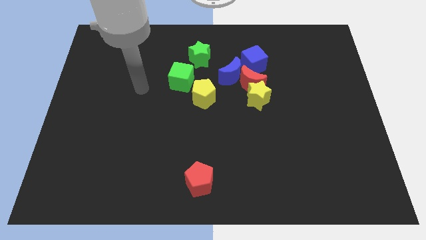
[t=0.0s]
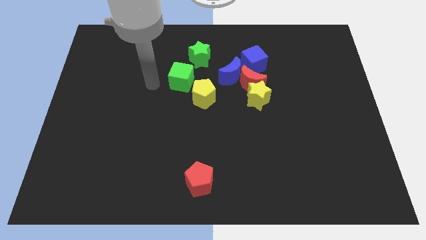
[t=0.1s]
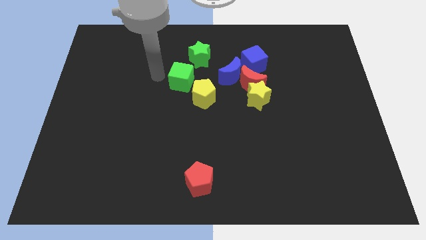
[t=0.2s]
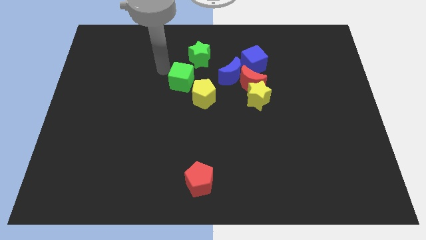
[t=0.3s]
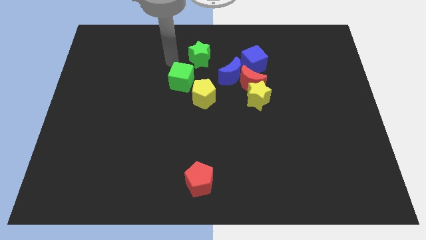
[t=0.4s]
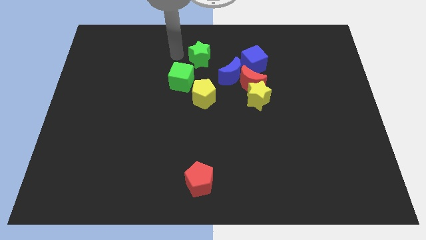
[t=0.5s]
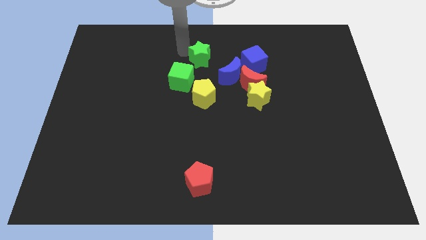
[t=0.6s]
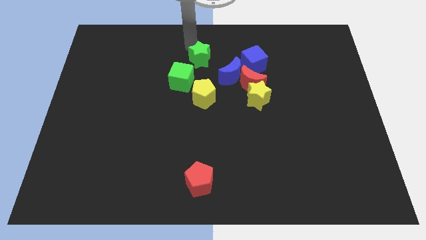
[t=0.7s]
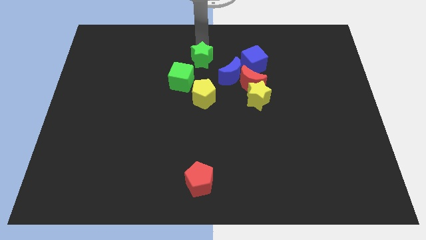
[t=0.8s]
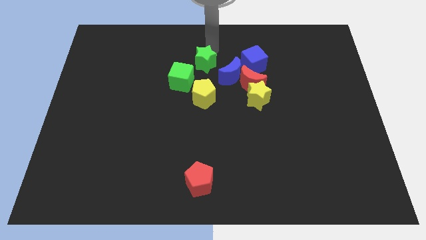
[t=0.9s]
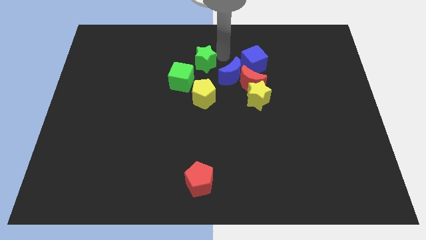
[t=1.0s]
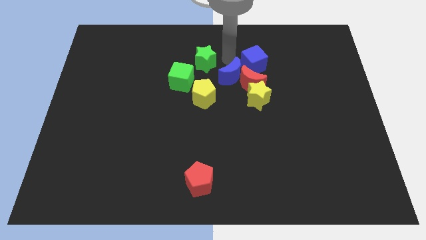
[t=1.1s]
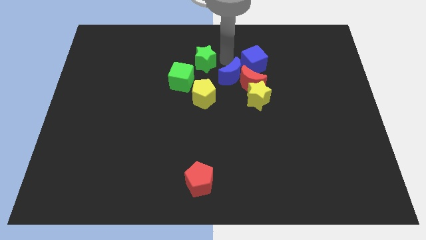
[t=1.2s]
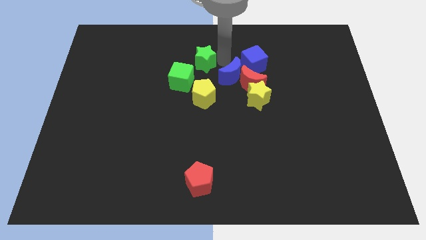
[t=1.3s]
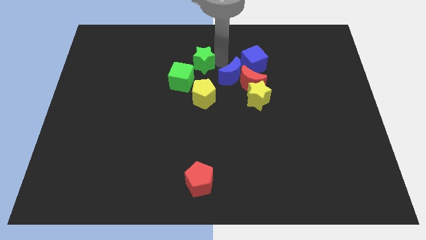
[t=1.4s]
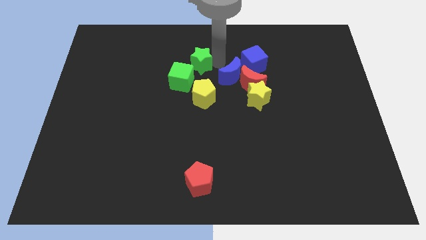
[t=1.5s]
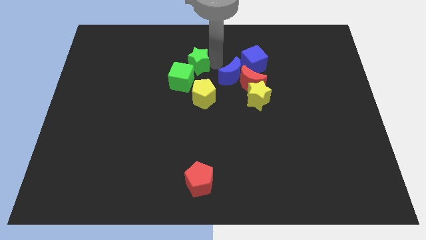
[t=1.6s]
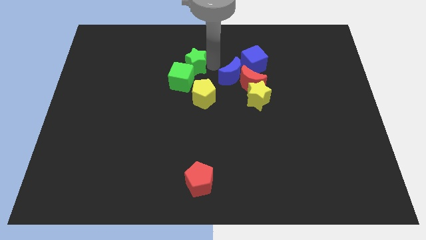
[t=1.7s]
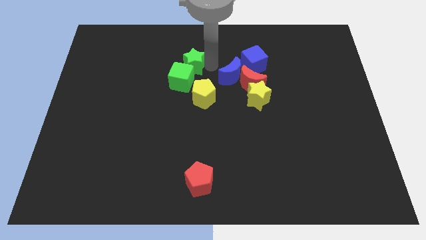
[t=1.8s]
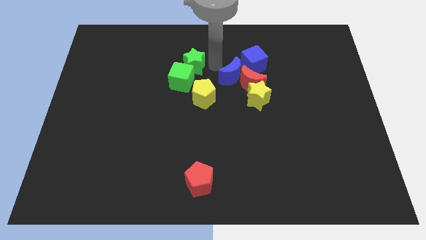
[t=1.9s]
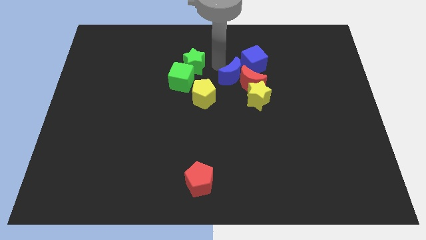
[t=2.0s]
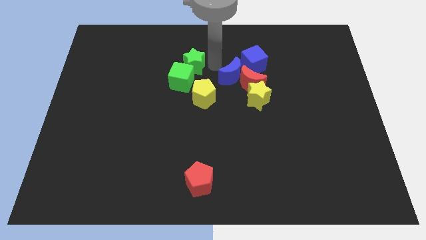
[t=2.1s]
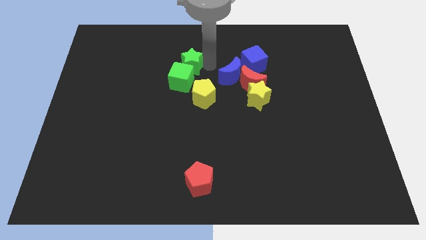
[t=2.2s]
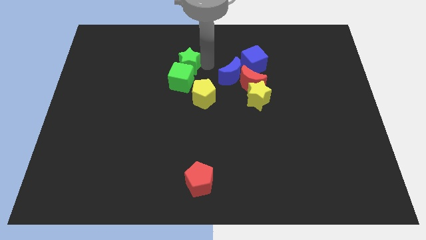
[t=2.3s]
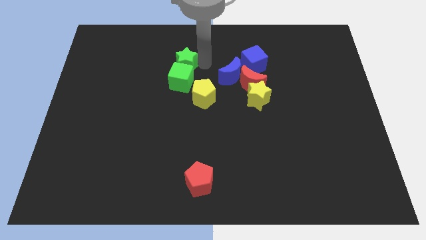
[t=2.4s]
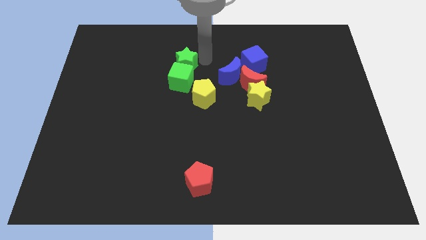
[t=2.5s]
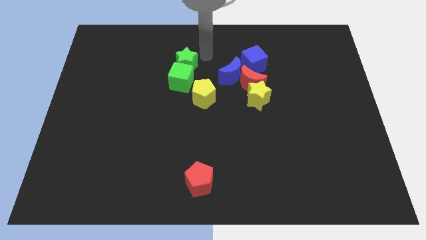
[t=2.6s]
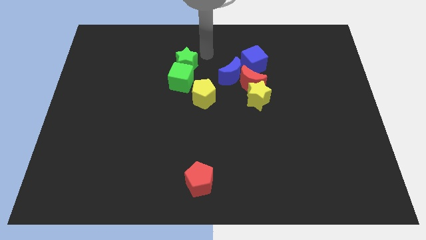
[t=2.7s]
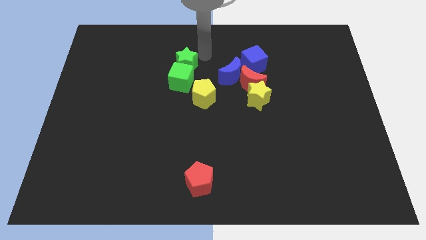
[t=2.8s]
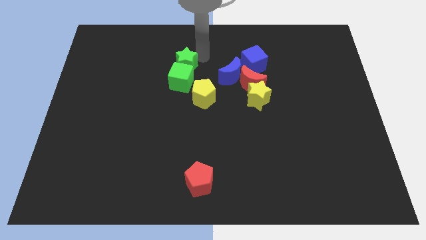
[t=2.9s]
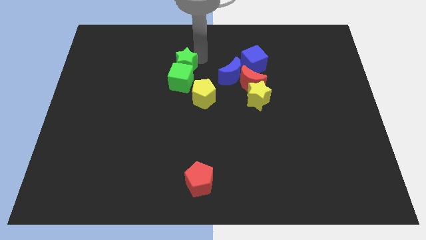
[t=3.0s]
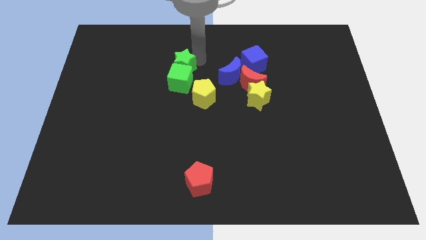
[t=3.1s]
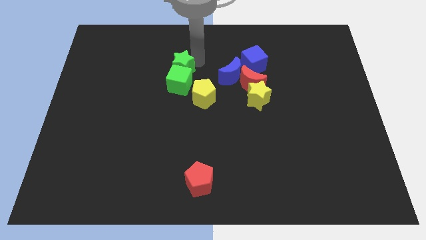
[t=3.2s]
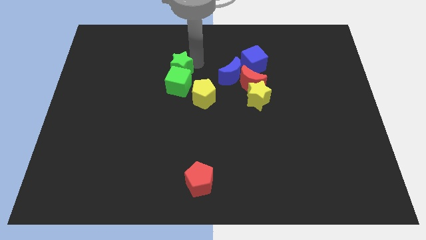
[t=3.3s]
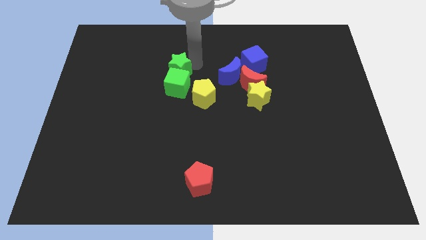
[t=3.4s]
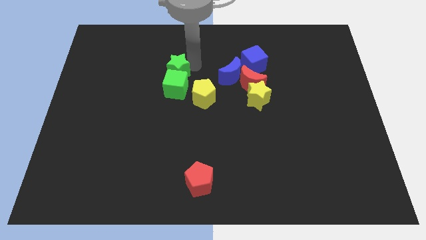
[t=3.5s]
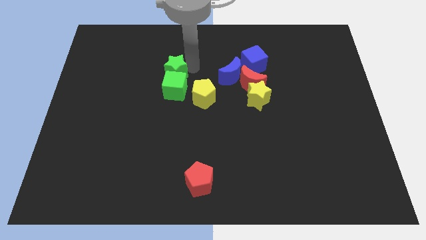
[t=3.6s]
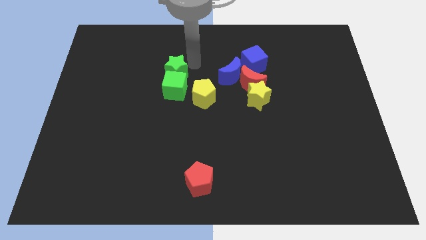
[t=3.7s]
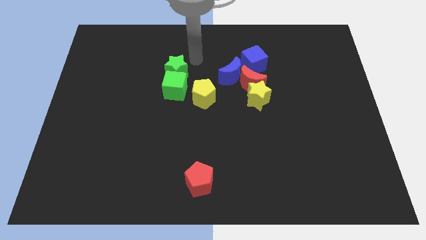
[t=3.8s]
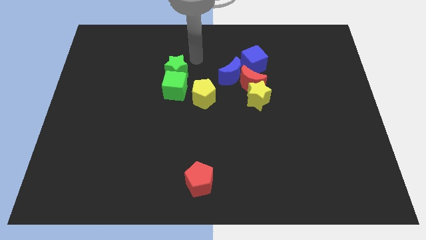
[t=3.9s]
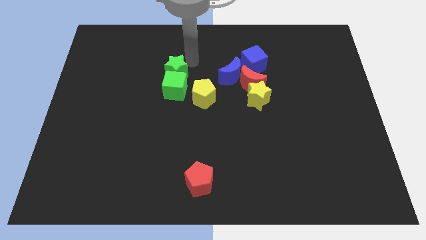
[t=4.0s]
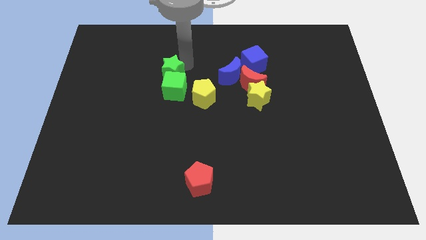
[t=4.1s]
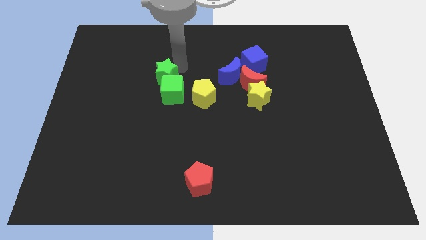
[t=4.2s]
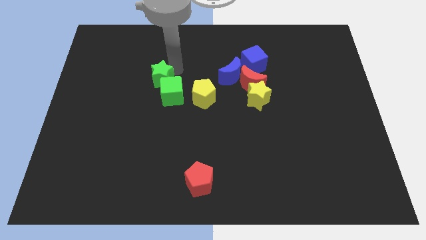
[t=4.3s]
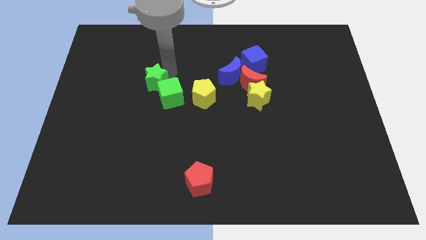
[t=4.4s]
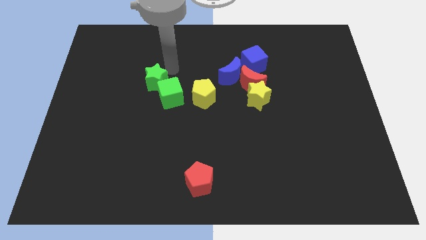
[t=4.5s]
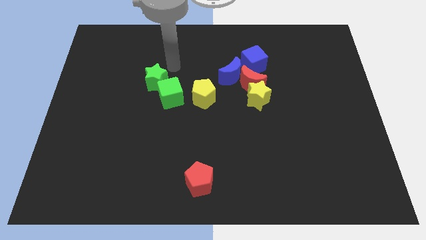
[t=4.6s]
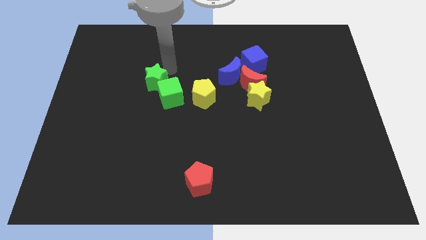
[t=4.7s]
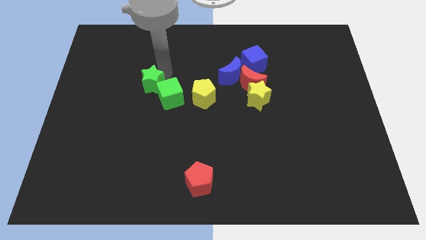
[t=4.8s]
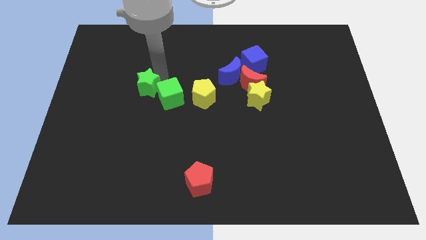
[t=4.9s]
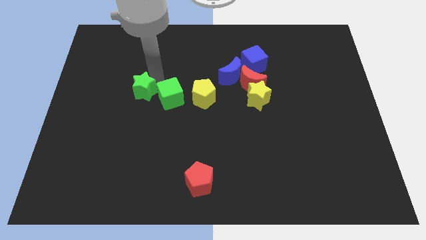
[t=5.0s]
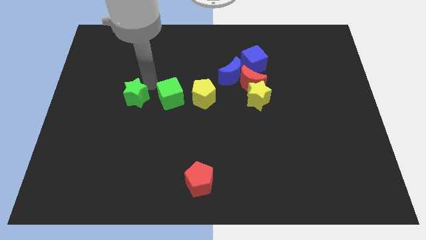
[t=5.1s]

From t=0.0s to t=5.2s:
push the green star down and left

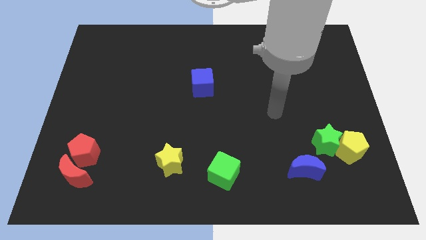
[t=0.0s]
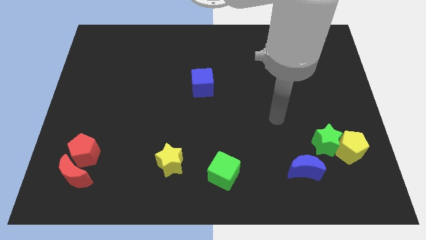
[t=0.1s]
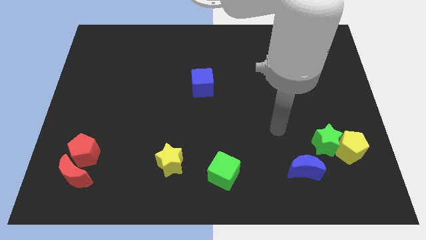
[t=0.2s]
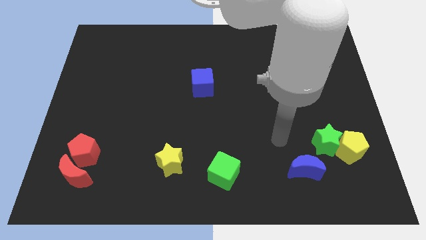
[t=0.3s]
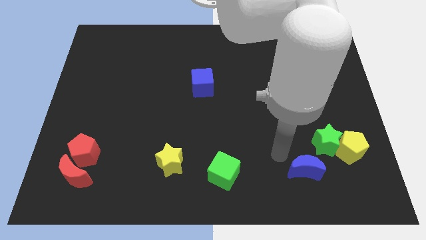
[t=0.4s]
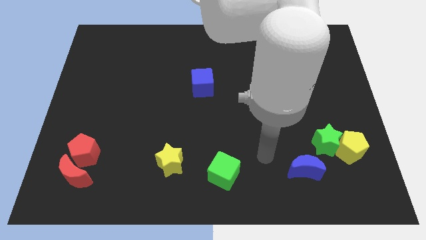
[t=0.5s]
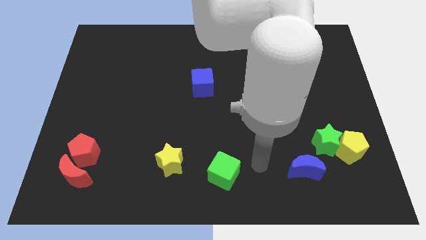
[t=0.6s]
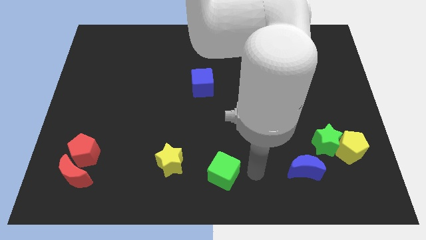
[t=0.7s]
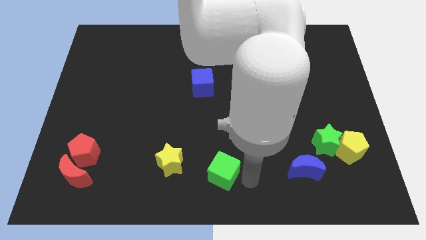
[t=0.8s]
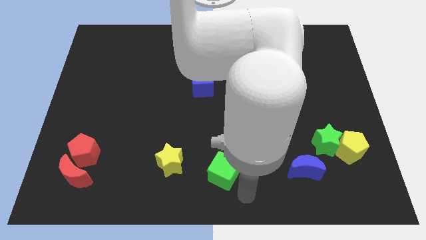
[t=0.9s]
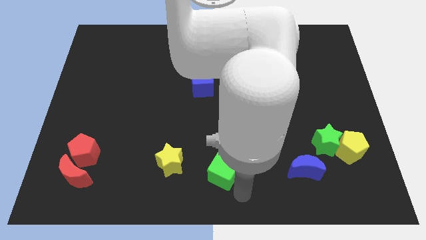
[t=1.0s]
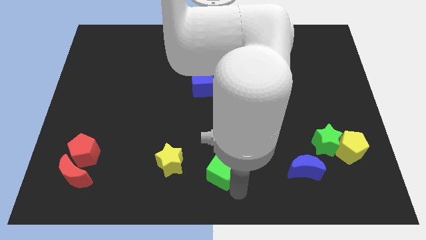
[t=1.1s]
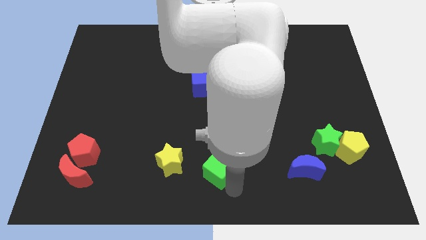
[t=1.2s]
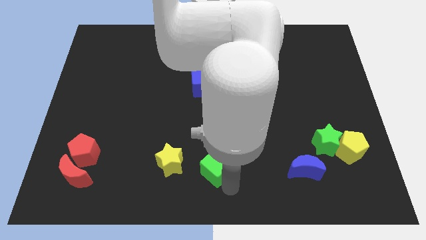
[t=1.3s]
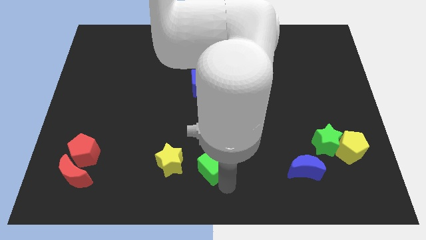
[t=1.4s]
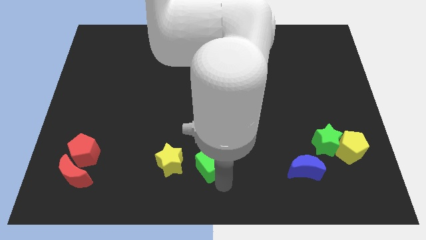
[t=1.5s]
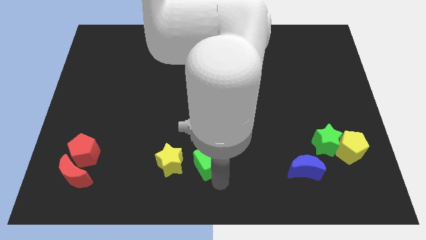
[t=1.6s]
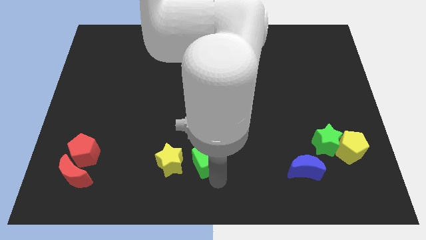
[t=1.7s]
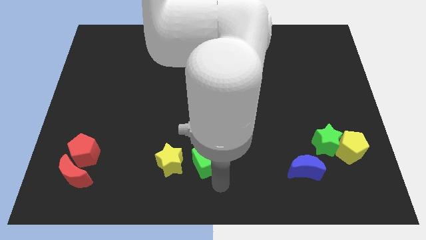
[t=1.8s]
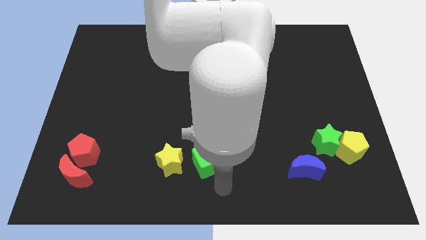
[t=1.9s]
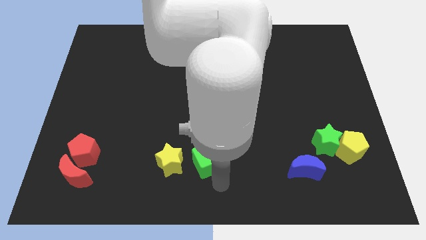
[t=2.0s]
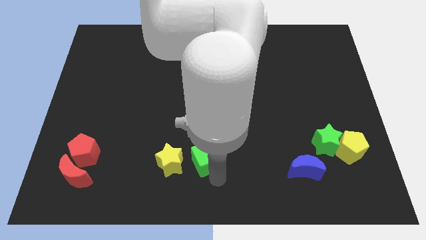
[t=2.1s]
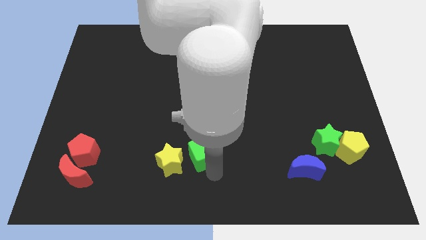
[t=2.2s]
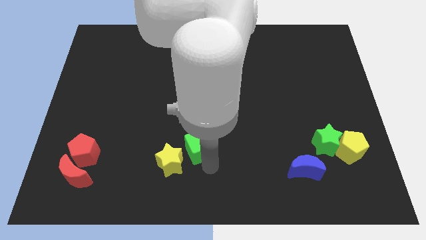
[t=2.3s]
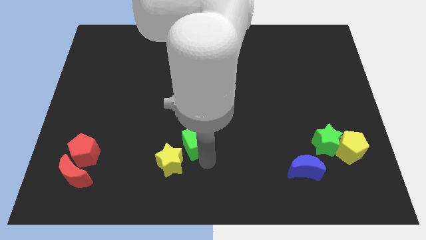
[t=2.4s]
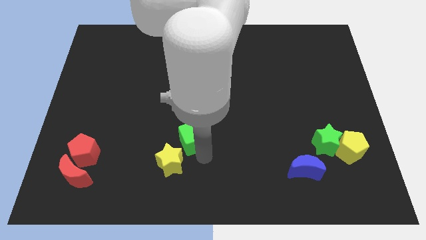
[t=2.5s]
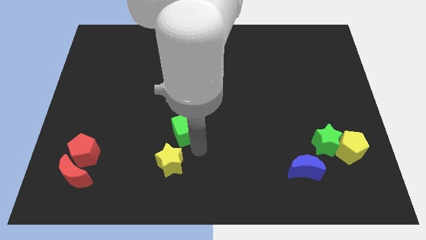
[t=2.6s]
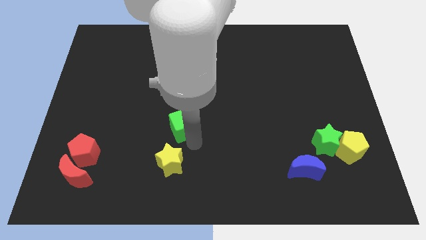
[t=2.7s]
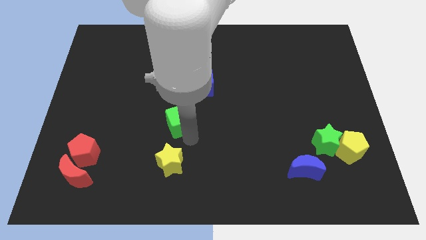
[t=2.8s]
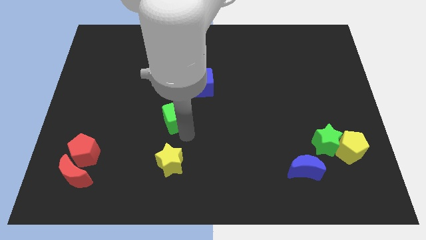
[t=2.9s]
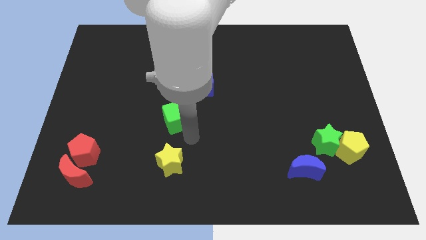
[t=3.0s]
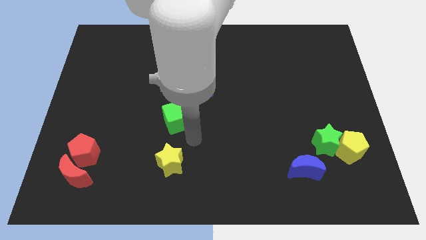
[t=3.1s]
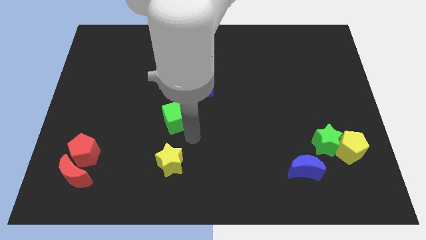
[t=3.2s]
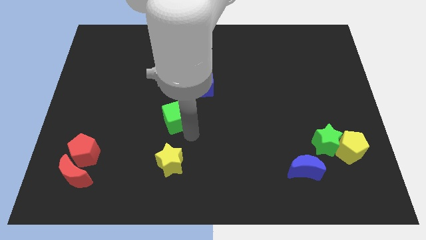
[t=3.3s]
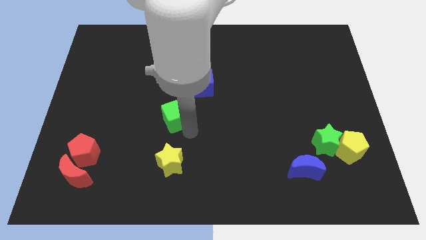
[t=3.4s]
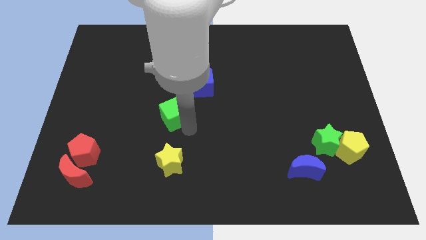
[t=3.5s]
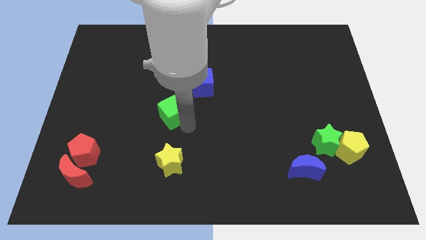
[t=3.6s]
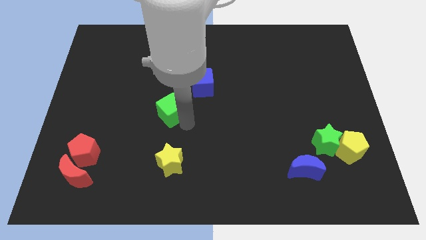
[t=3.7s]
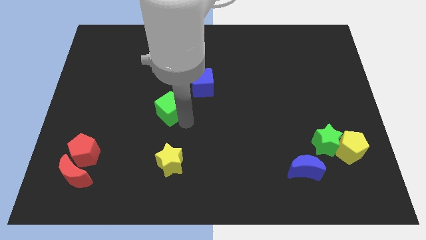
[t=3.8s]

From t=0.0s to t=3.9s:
push the green cube upwards and then to the left
